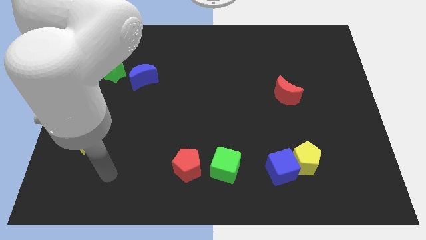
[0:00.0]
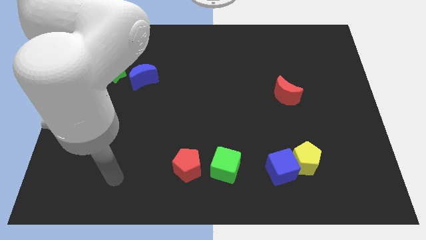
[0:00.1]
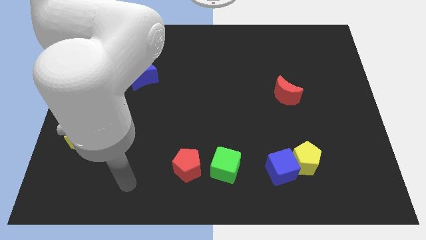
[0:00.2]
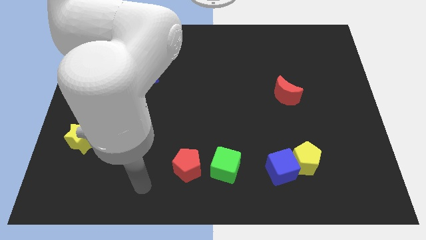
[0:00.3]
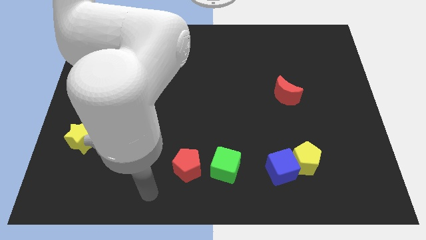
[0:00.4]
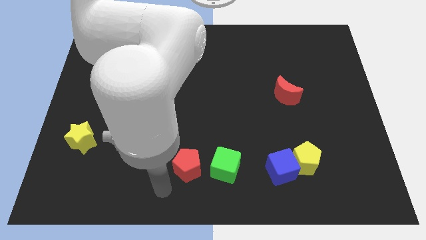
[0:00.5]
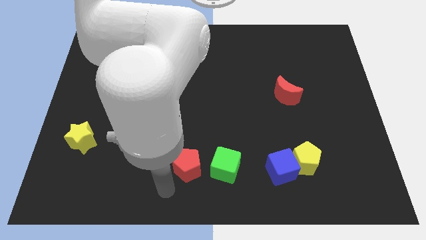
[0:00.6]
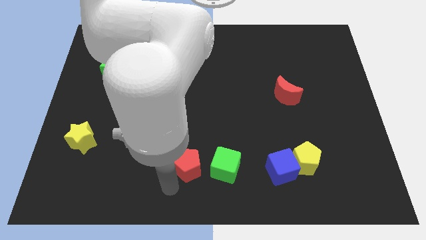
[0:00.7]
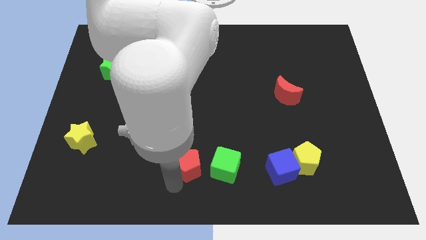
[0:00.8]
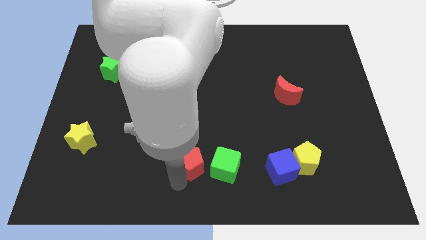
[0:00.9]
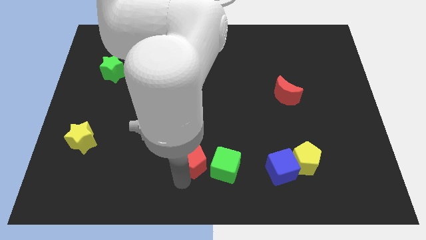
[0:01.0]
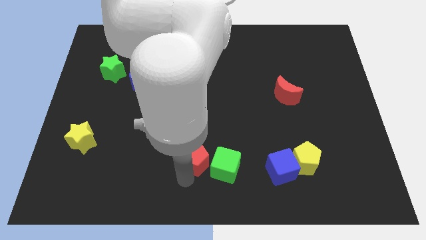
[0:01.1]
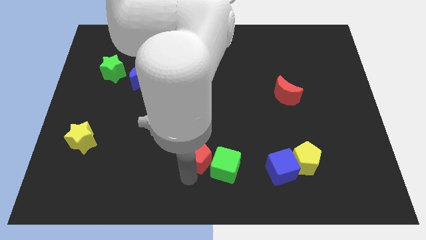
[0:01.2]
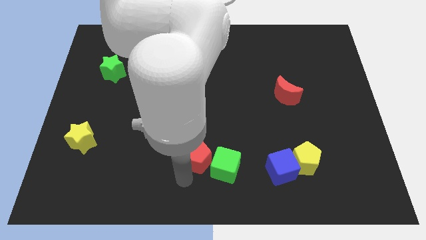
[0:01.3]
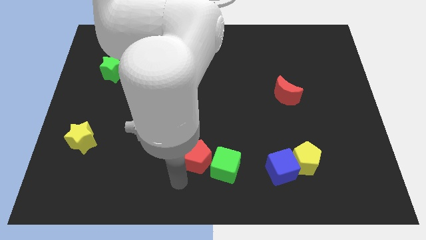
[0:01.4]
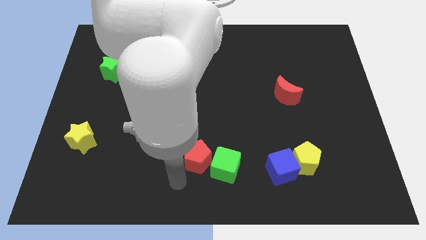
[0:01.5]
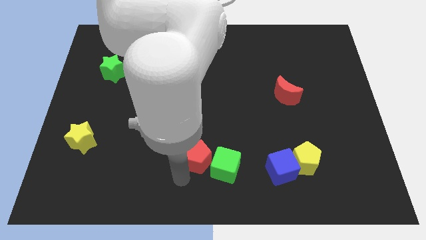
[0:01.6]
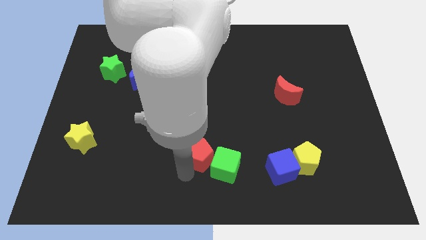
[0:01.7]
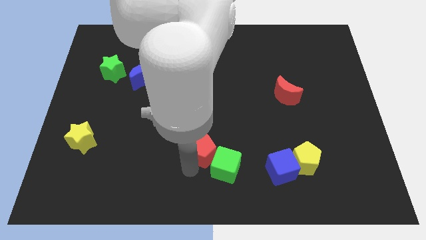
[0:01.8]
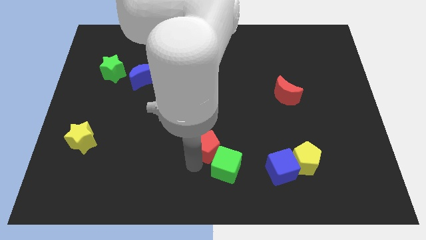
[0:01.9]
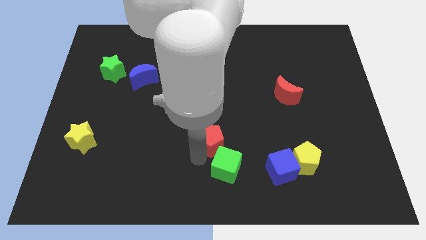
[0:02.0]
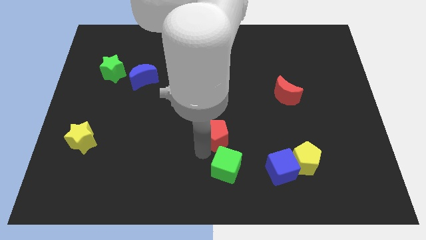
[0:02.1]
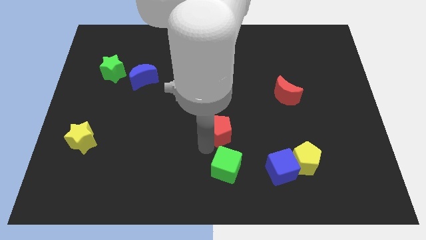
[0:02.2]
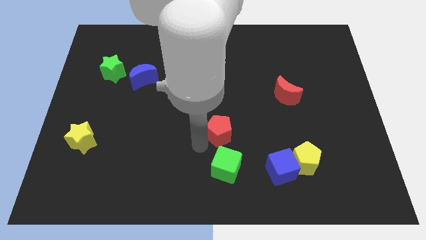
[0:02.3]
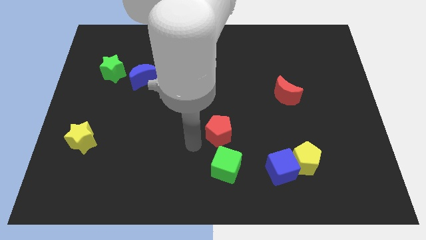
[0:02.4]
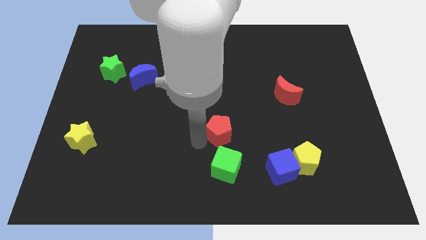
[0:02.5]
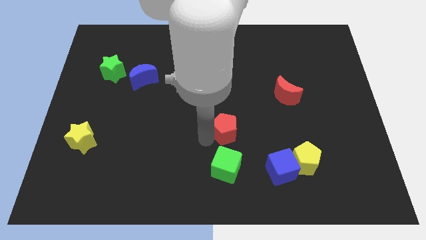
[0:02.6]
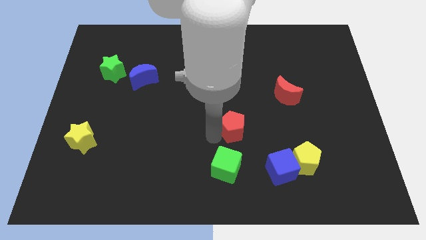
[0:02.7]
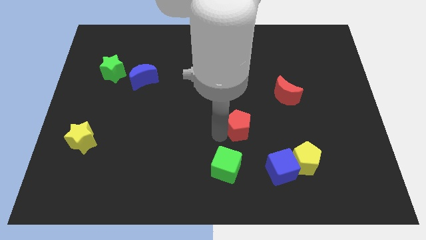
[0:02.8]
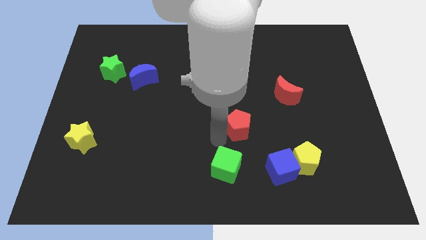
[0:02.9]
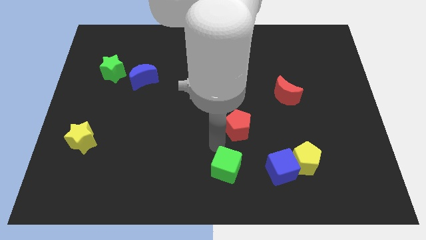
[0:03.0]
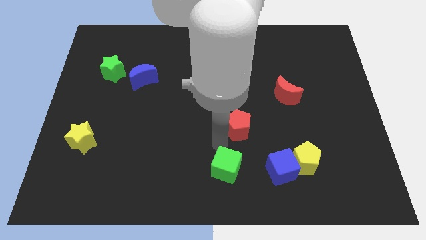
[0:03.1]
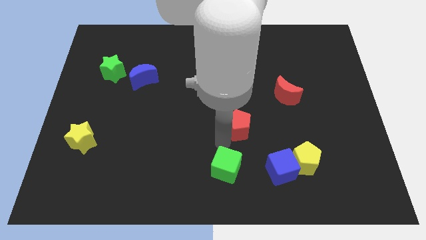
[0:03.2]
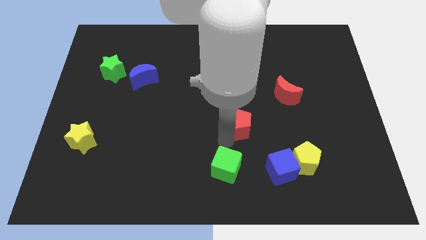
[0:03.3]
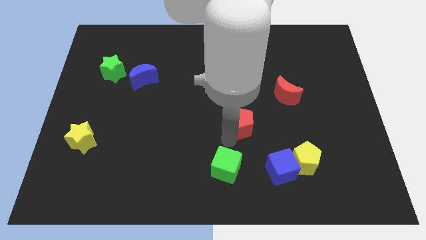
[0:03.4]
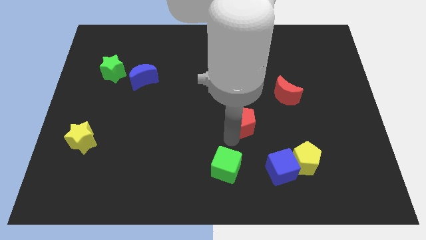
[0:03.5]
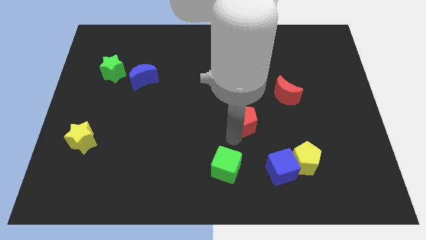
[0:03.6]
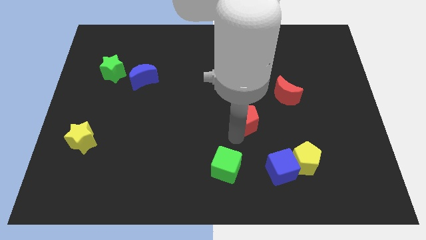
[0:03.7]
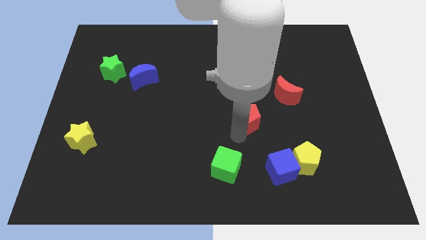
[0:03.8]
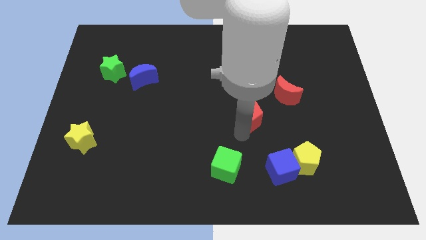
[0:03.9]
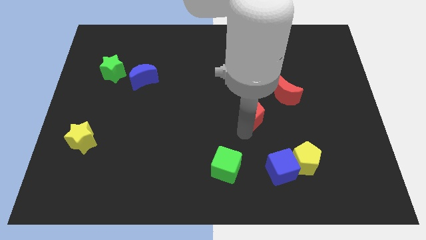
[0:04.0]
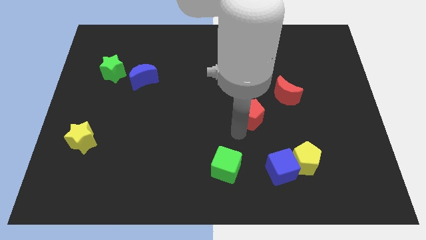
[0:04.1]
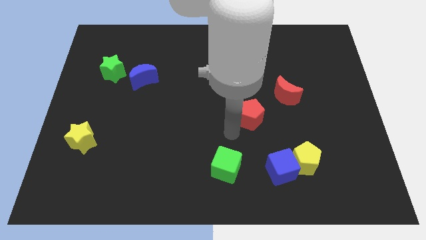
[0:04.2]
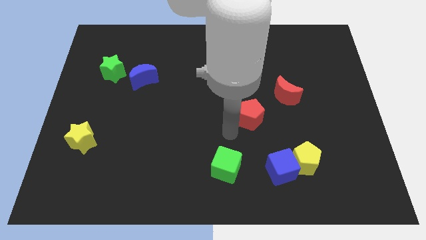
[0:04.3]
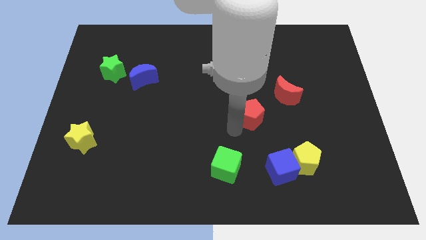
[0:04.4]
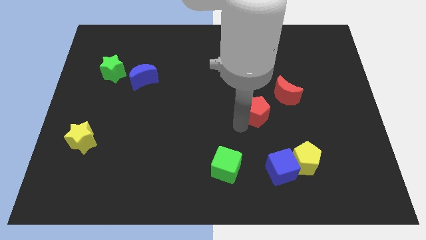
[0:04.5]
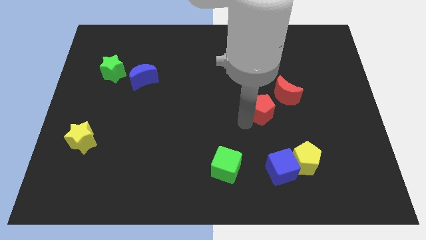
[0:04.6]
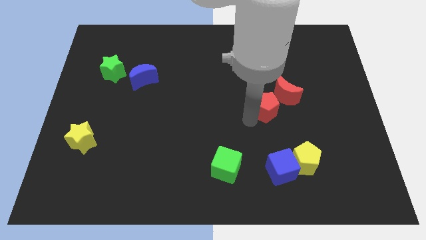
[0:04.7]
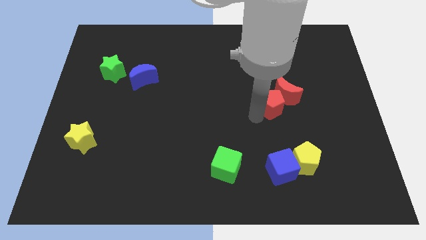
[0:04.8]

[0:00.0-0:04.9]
move the red pentagon close to the red moon

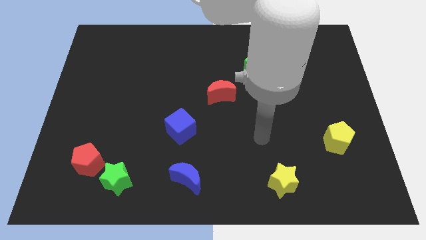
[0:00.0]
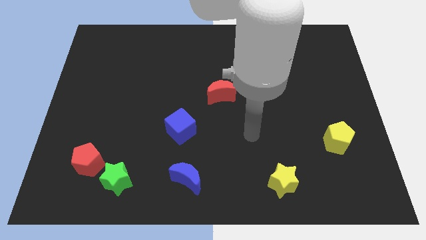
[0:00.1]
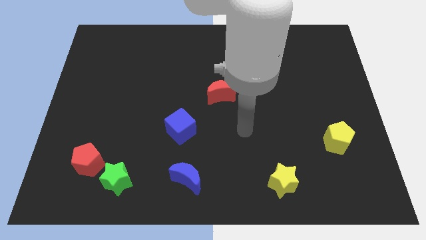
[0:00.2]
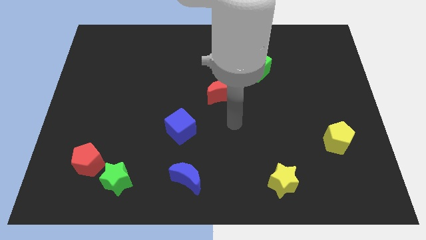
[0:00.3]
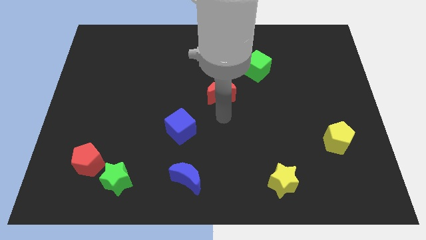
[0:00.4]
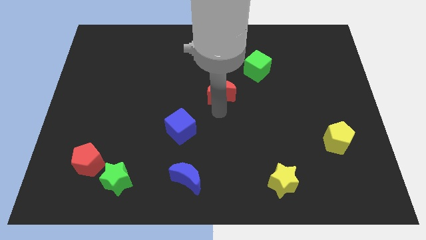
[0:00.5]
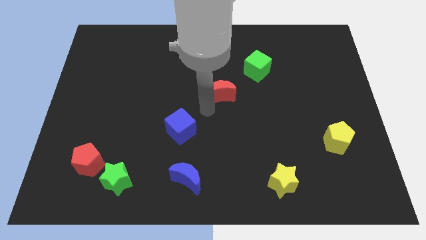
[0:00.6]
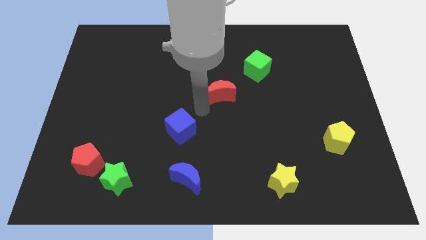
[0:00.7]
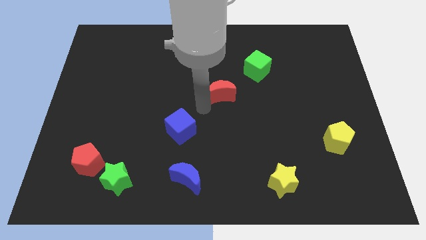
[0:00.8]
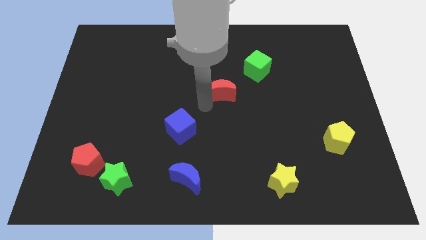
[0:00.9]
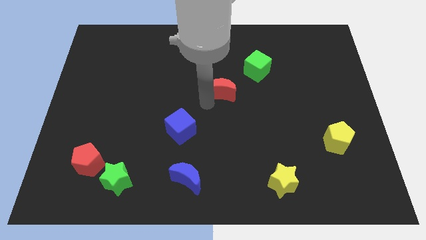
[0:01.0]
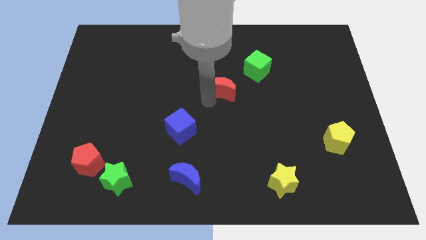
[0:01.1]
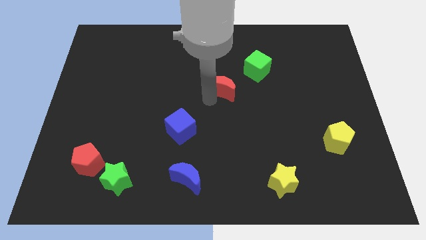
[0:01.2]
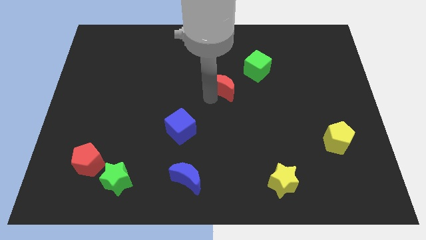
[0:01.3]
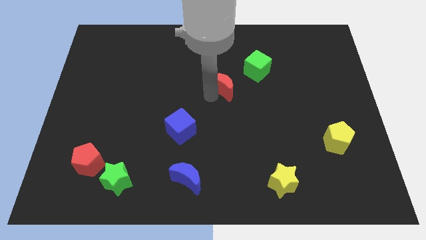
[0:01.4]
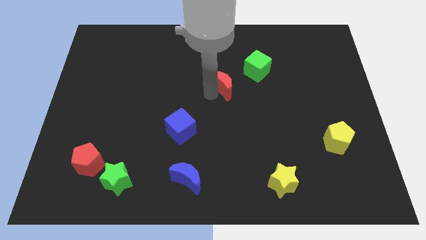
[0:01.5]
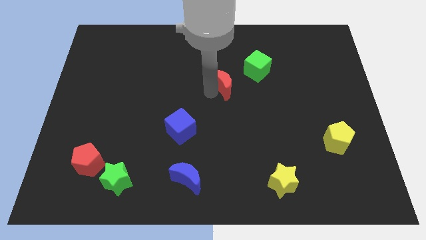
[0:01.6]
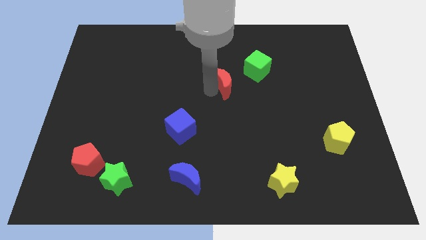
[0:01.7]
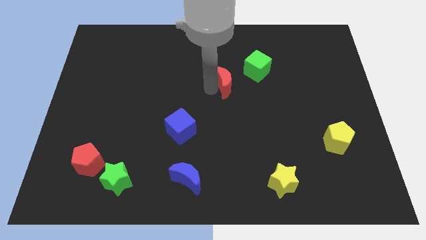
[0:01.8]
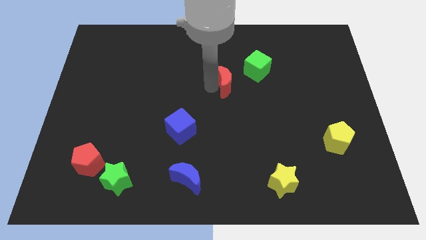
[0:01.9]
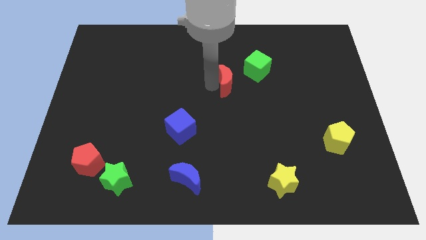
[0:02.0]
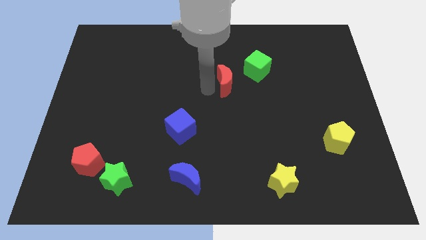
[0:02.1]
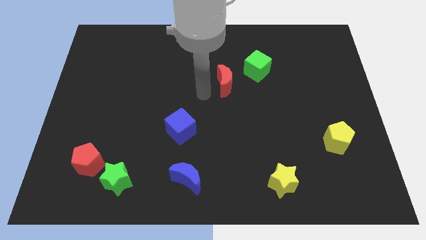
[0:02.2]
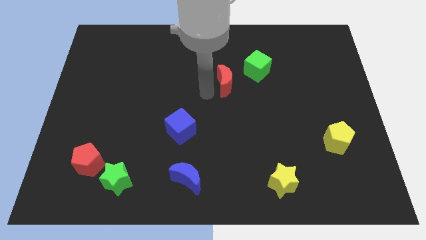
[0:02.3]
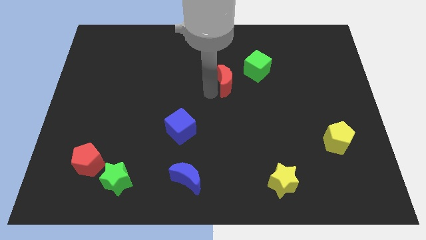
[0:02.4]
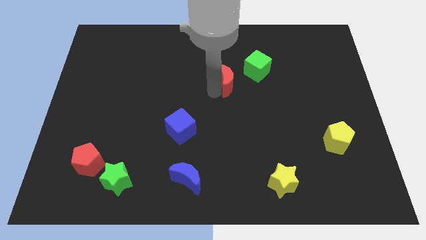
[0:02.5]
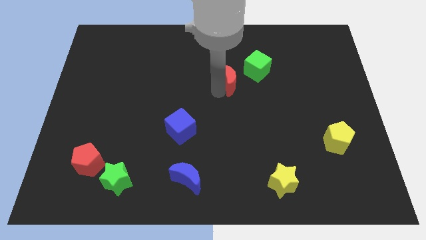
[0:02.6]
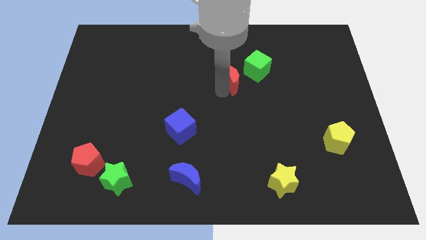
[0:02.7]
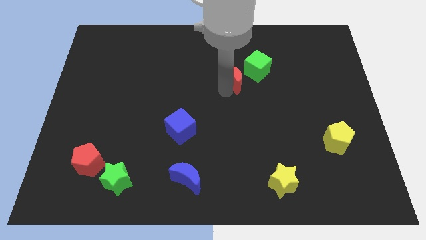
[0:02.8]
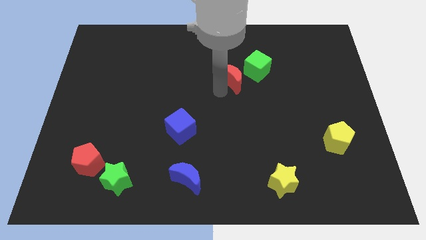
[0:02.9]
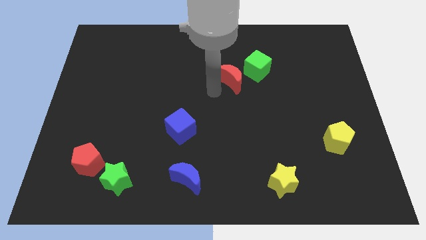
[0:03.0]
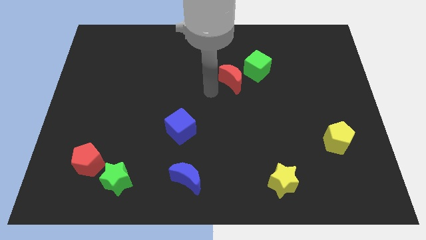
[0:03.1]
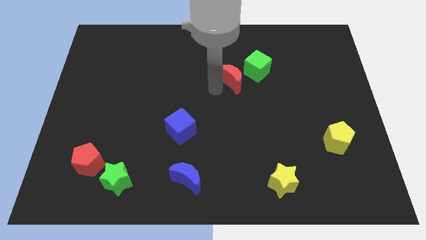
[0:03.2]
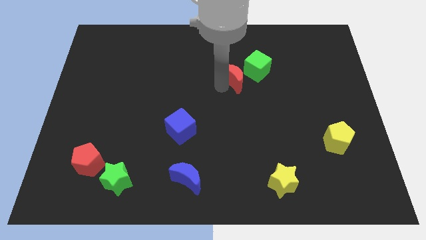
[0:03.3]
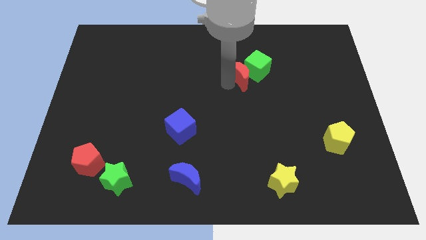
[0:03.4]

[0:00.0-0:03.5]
push the red moon to the green cube
